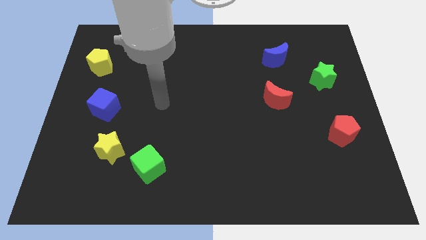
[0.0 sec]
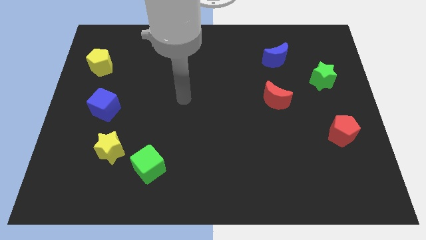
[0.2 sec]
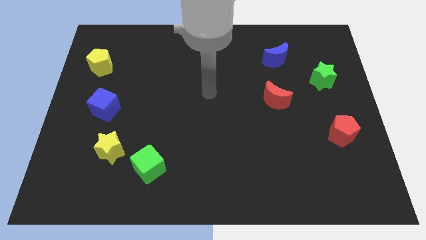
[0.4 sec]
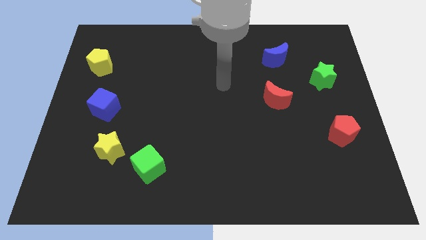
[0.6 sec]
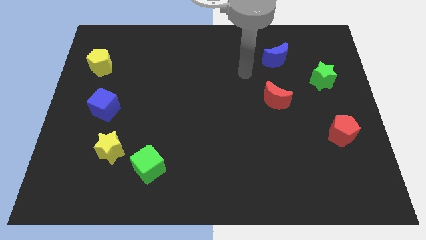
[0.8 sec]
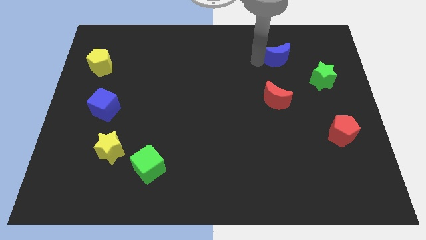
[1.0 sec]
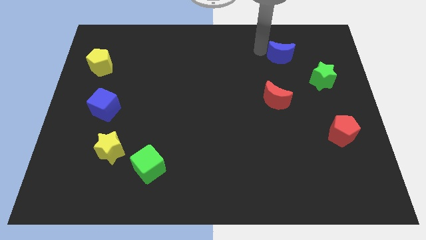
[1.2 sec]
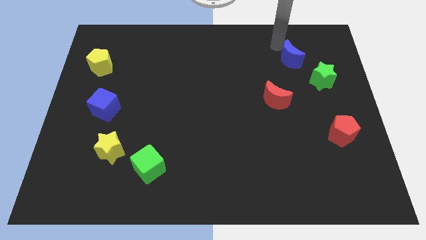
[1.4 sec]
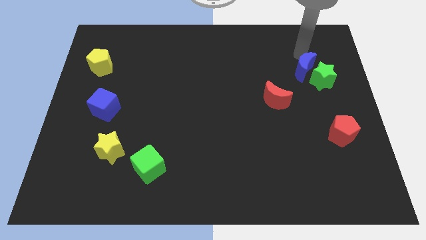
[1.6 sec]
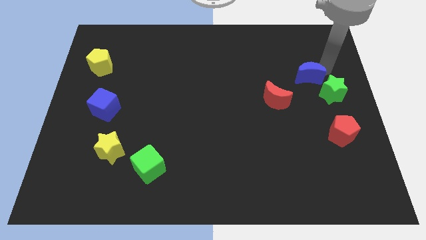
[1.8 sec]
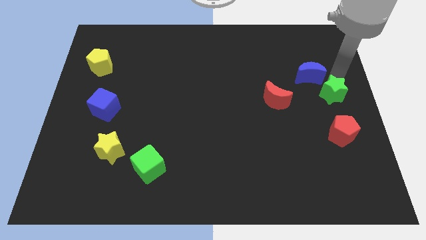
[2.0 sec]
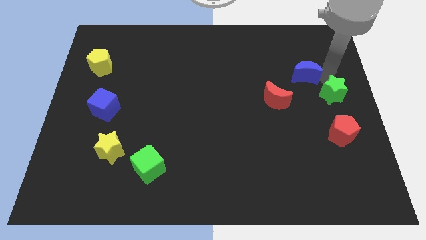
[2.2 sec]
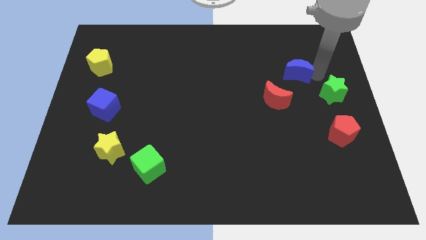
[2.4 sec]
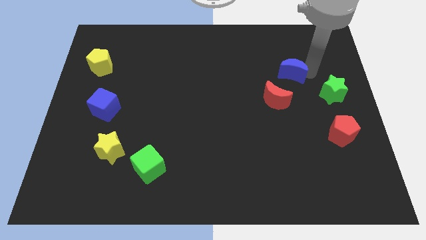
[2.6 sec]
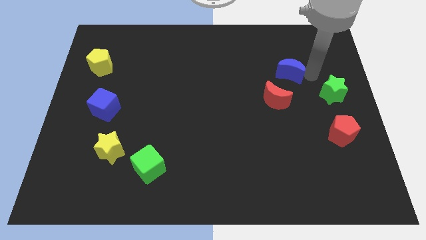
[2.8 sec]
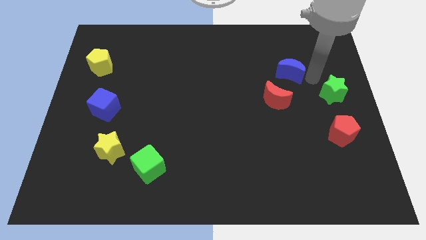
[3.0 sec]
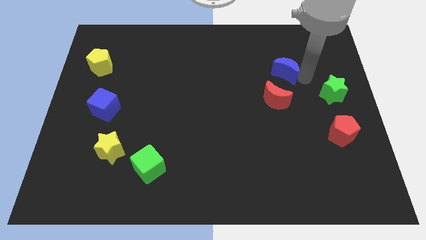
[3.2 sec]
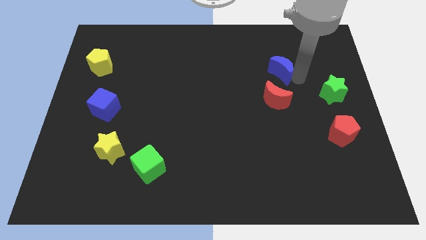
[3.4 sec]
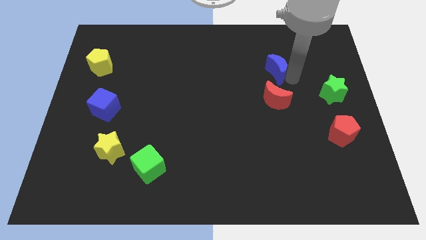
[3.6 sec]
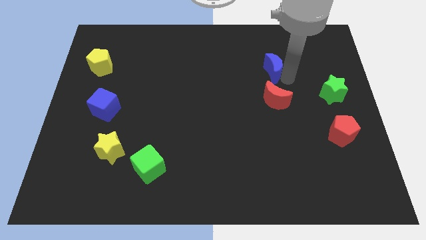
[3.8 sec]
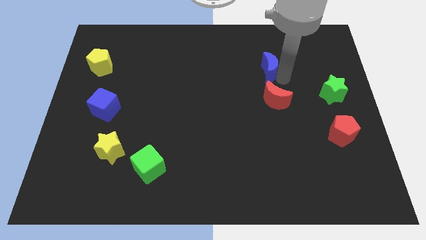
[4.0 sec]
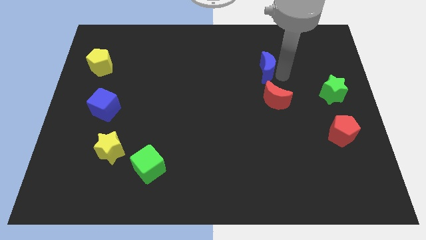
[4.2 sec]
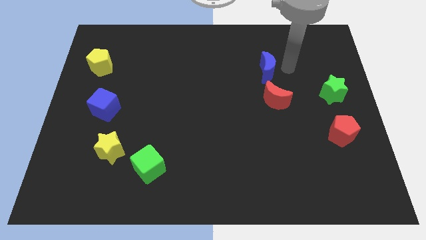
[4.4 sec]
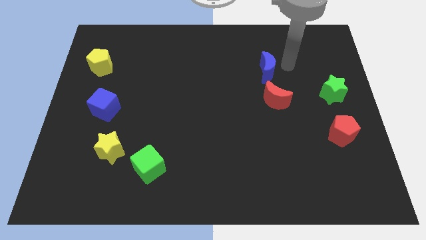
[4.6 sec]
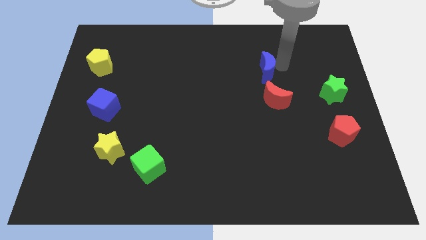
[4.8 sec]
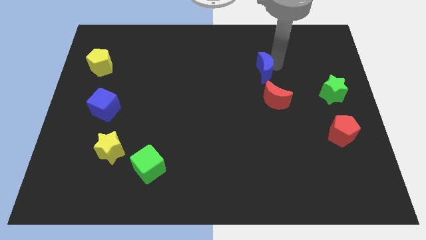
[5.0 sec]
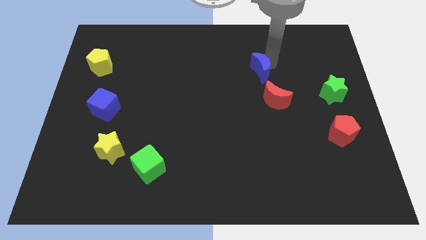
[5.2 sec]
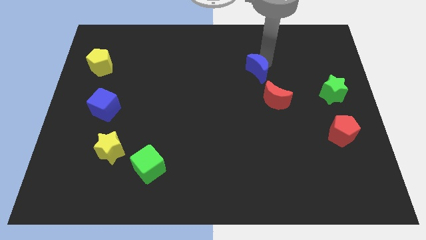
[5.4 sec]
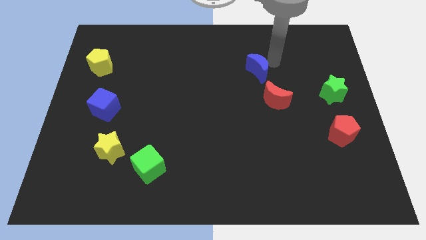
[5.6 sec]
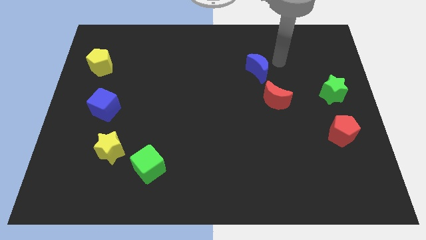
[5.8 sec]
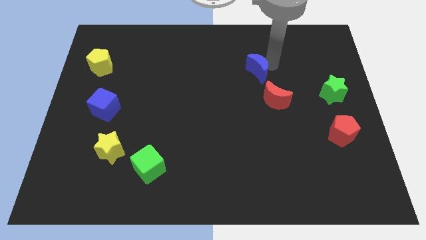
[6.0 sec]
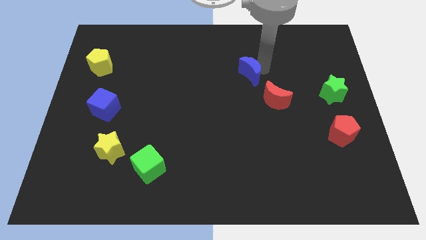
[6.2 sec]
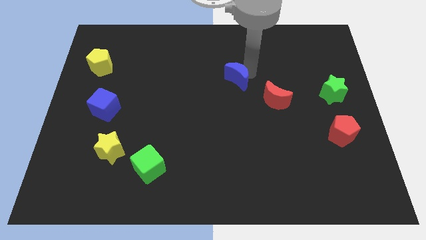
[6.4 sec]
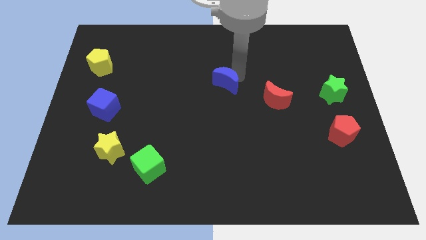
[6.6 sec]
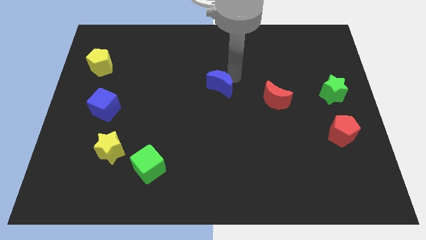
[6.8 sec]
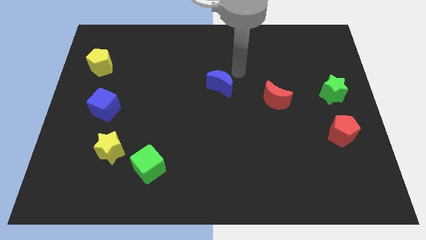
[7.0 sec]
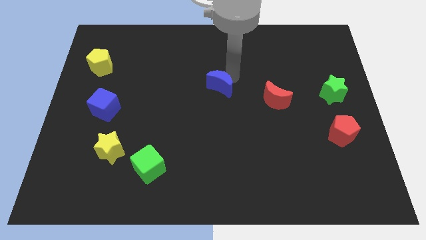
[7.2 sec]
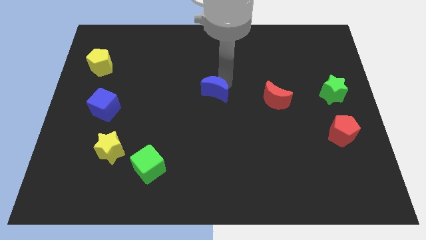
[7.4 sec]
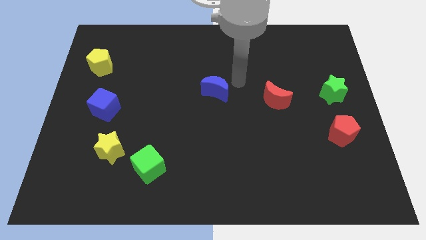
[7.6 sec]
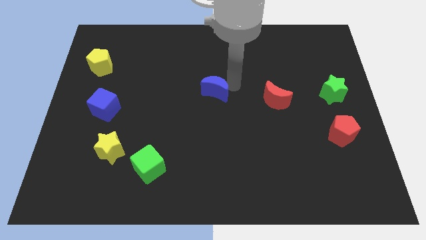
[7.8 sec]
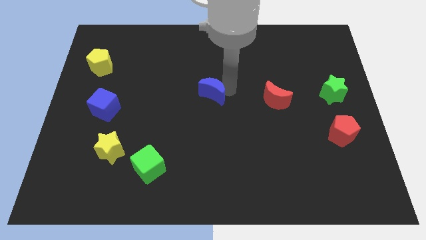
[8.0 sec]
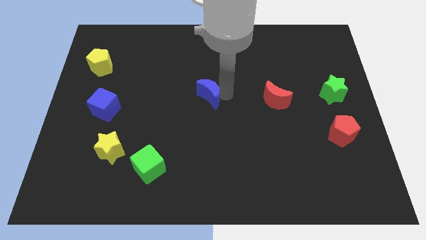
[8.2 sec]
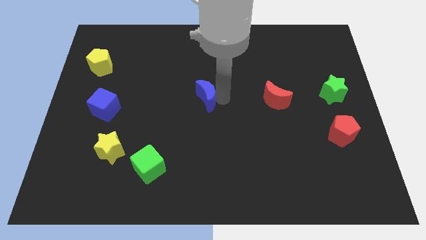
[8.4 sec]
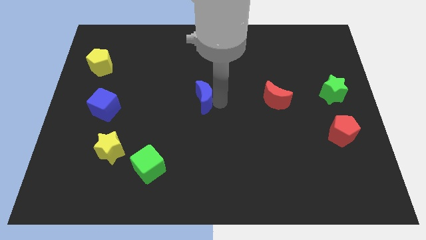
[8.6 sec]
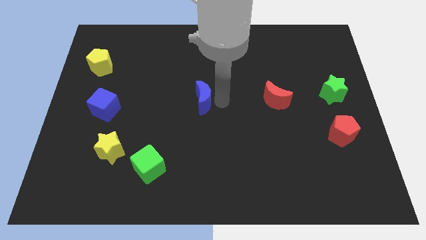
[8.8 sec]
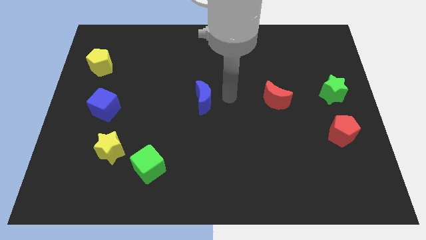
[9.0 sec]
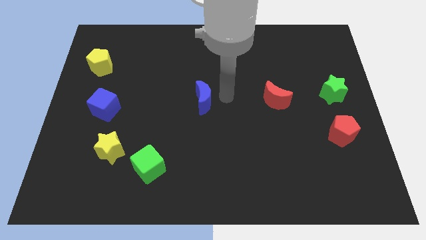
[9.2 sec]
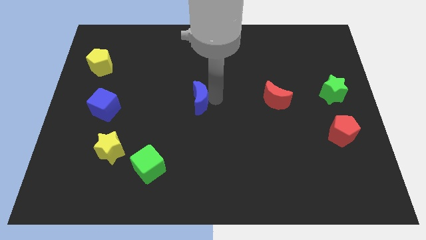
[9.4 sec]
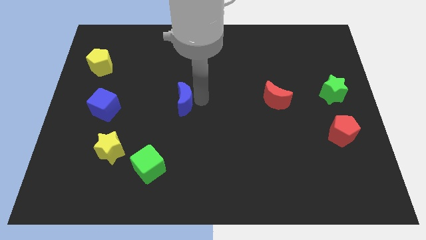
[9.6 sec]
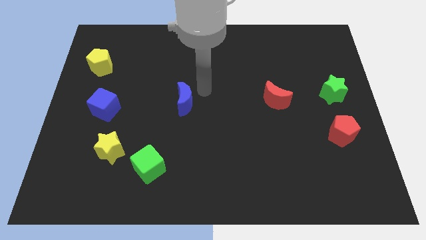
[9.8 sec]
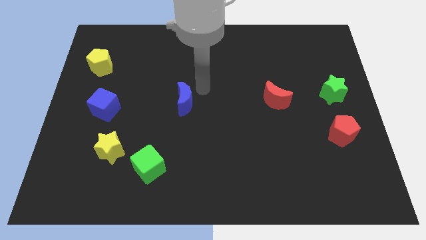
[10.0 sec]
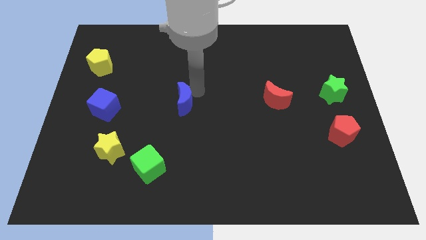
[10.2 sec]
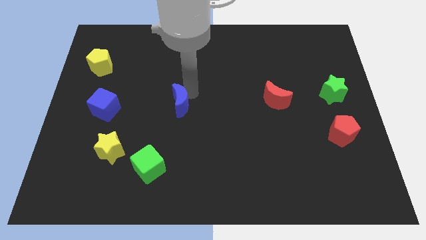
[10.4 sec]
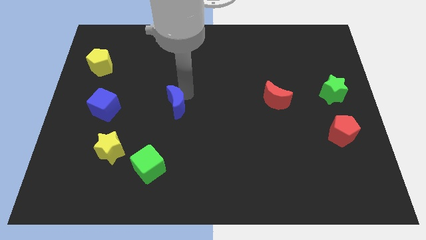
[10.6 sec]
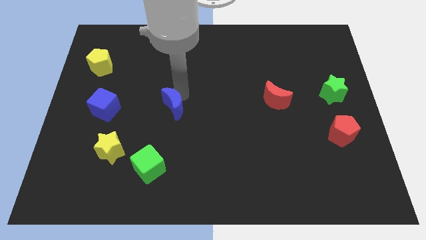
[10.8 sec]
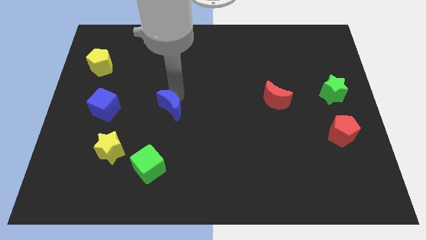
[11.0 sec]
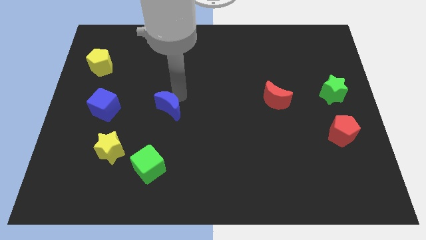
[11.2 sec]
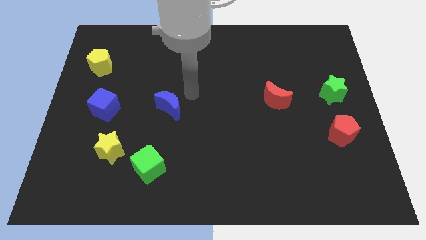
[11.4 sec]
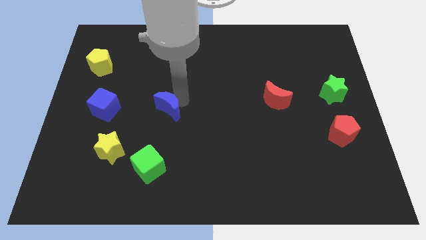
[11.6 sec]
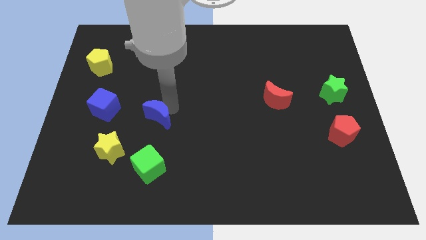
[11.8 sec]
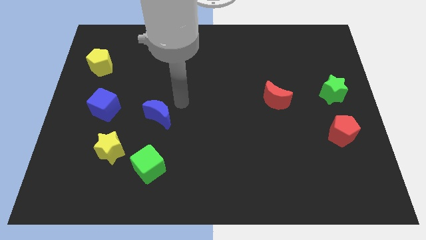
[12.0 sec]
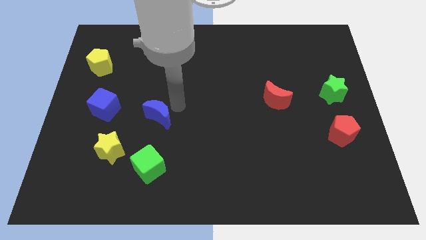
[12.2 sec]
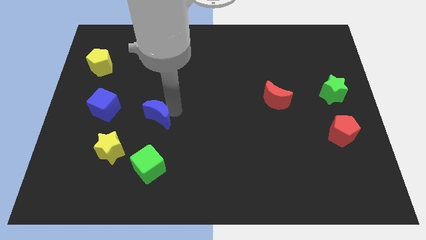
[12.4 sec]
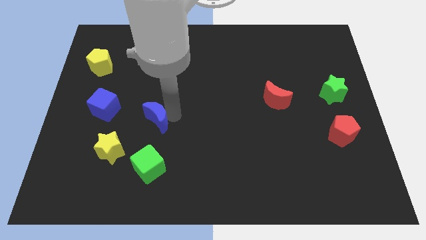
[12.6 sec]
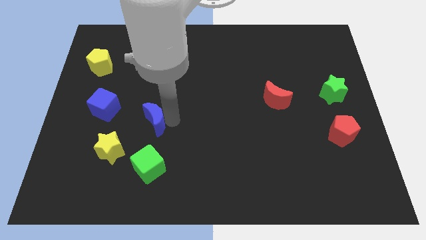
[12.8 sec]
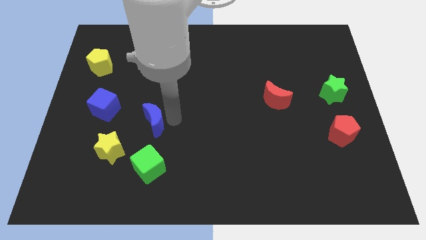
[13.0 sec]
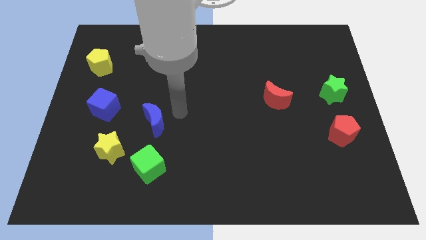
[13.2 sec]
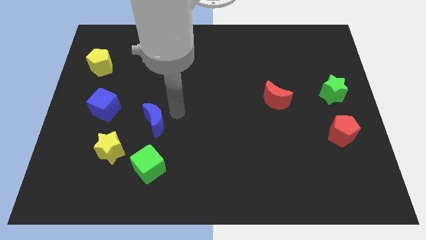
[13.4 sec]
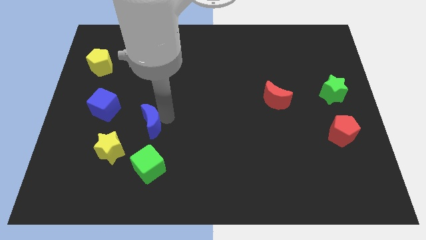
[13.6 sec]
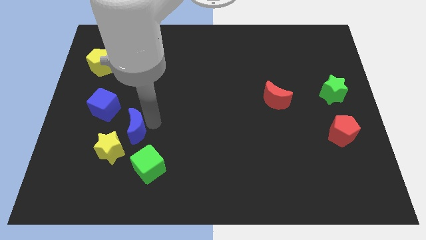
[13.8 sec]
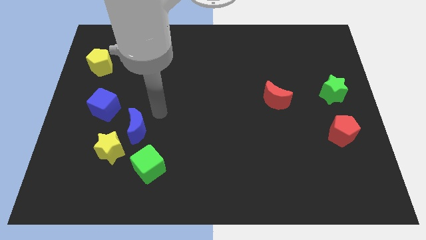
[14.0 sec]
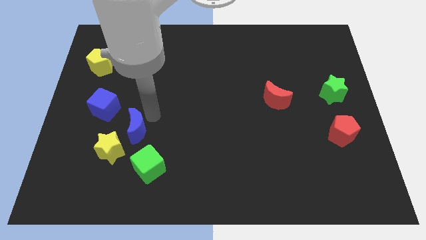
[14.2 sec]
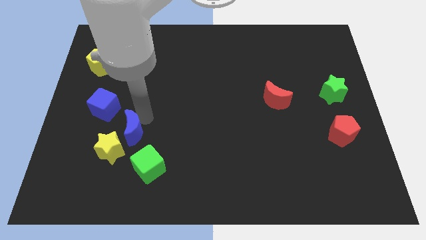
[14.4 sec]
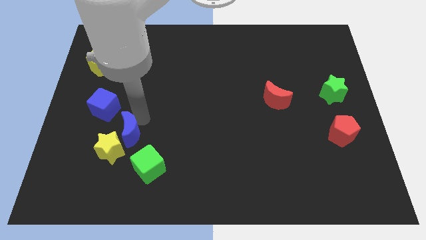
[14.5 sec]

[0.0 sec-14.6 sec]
put the blue moon towards the yellow star
